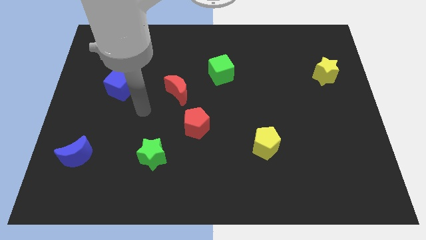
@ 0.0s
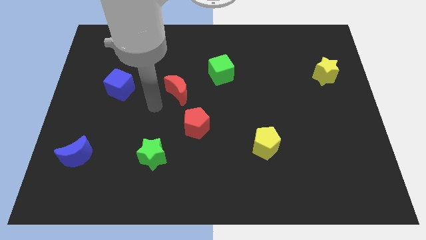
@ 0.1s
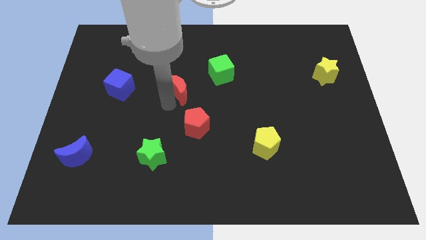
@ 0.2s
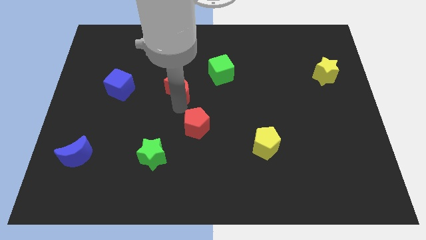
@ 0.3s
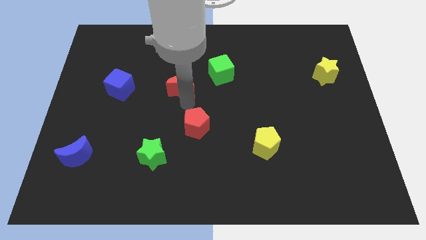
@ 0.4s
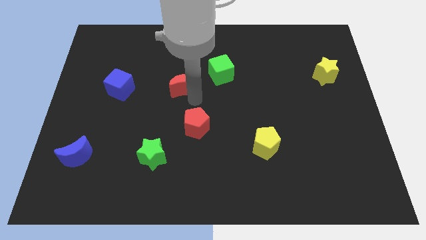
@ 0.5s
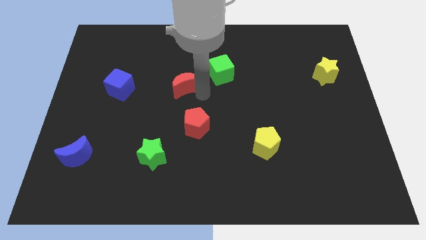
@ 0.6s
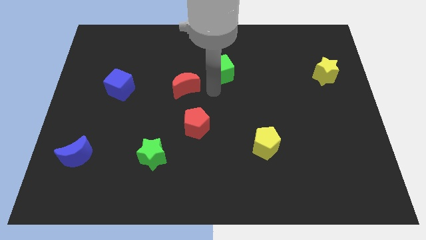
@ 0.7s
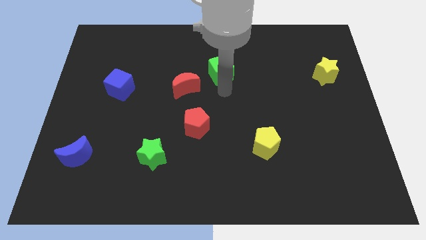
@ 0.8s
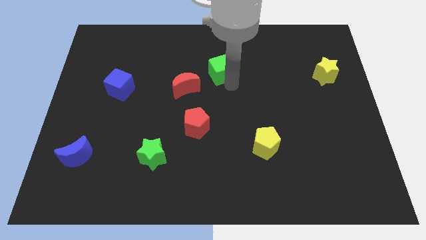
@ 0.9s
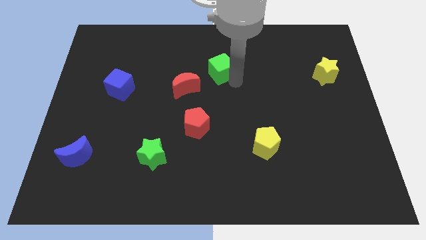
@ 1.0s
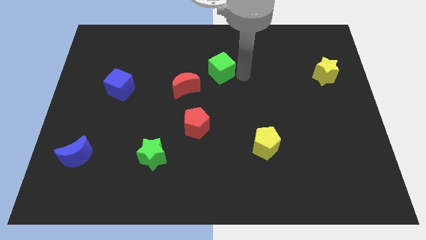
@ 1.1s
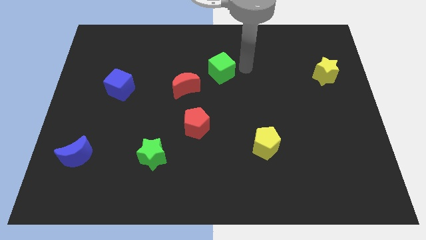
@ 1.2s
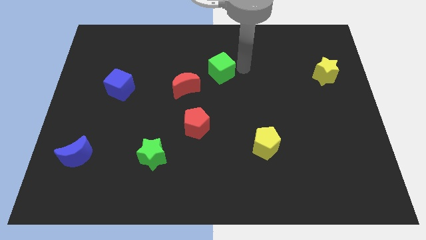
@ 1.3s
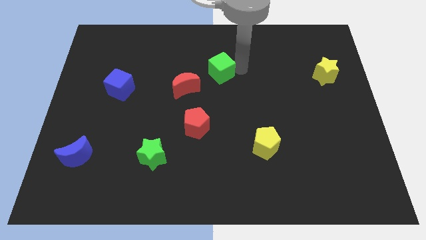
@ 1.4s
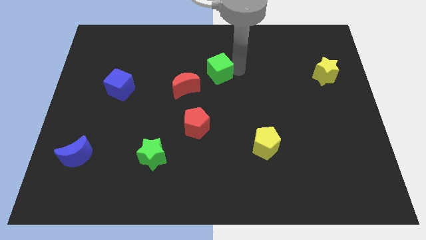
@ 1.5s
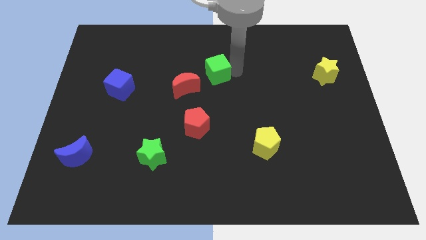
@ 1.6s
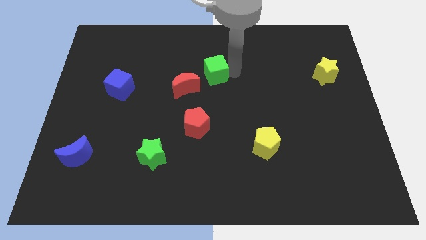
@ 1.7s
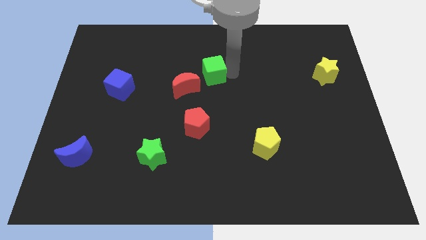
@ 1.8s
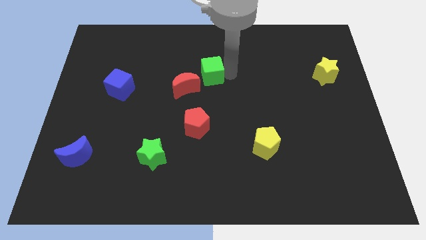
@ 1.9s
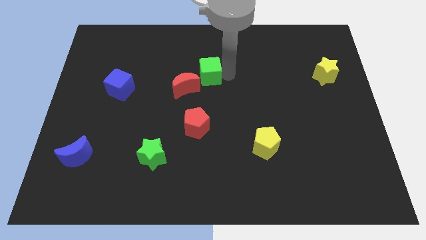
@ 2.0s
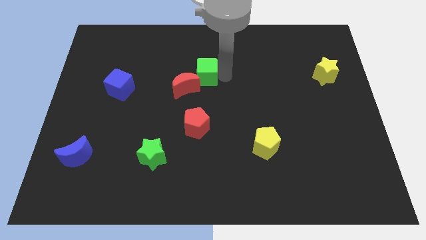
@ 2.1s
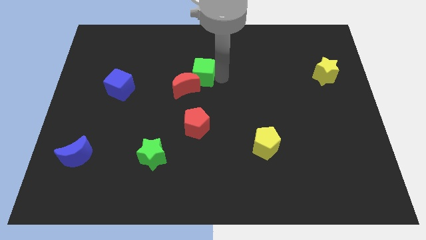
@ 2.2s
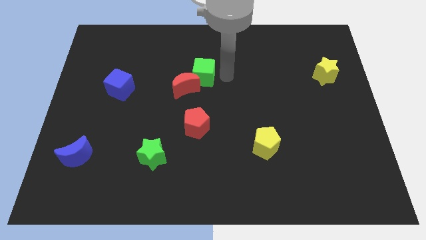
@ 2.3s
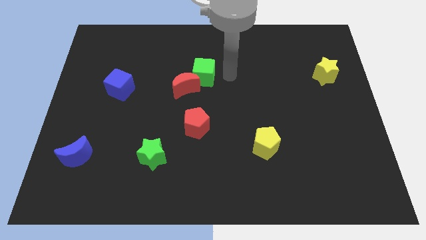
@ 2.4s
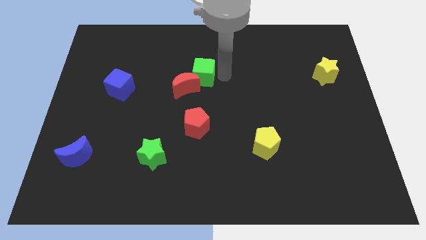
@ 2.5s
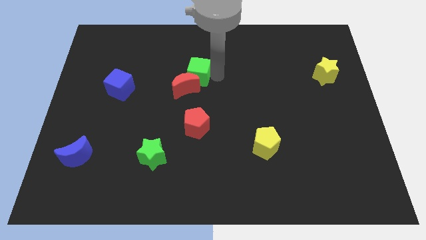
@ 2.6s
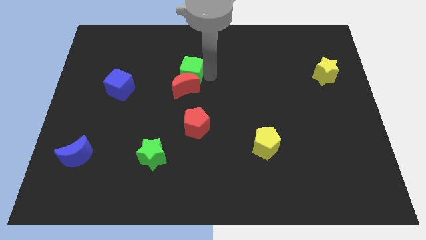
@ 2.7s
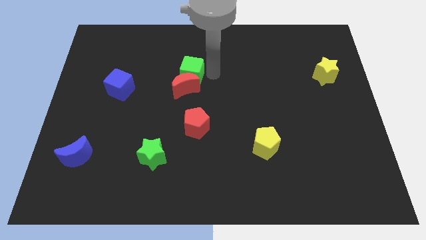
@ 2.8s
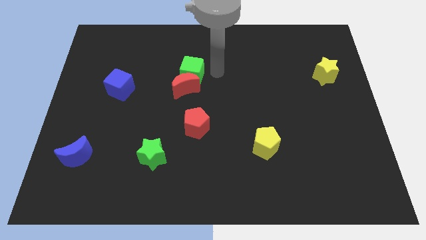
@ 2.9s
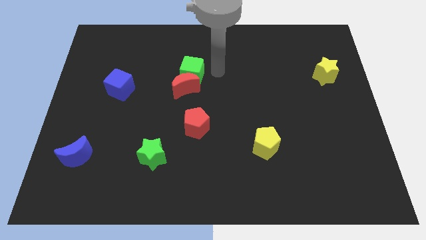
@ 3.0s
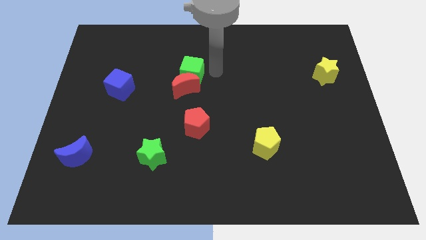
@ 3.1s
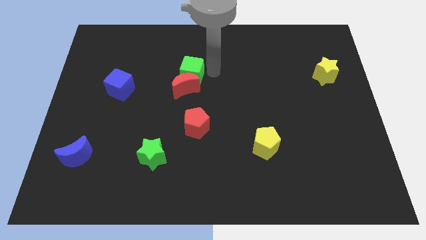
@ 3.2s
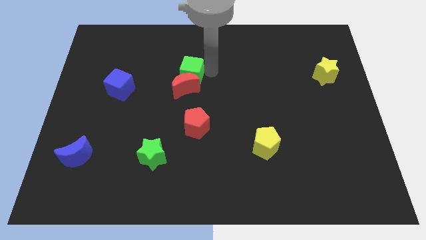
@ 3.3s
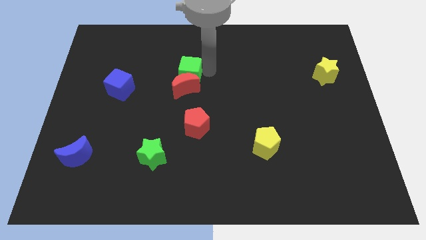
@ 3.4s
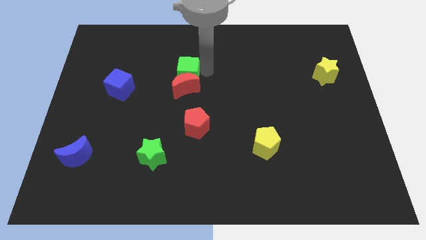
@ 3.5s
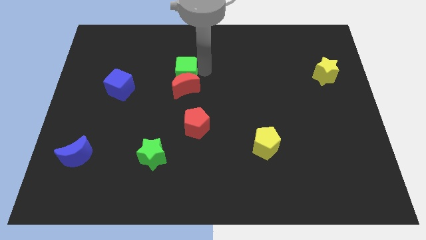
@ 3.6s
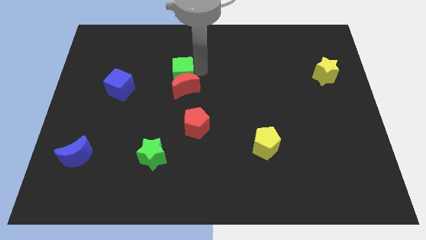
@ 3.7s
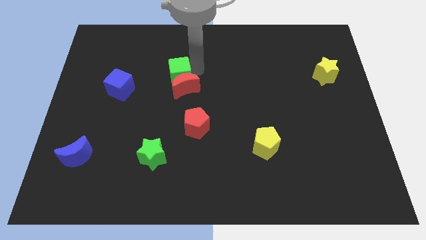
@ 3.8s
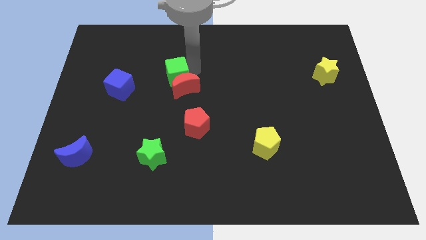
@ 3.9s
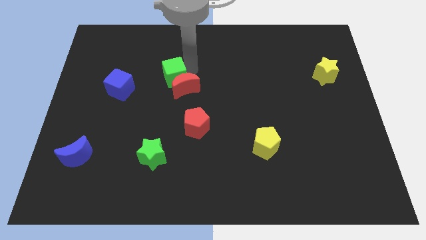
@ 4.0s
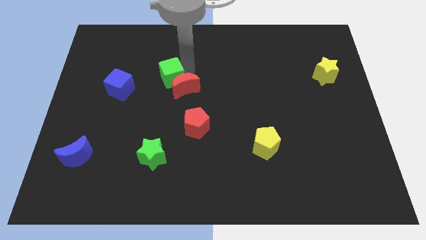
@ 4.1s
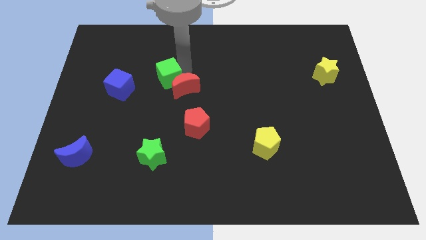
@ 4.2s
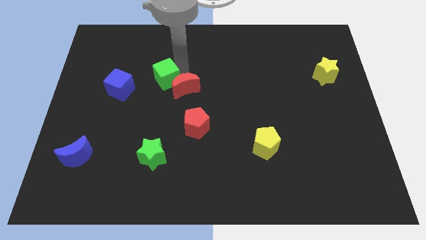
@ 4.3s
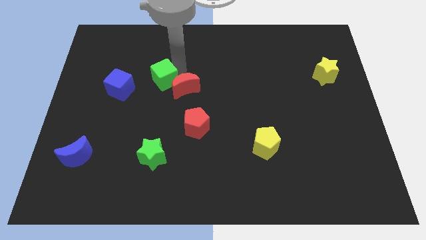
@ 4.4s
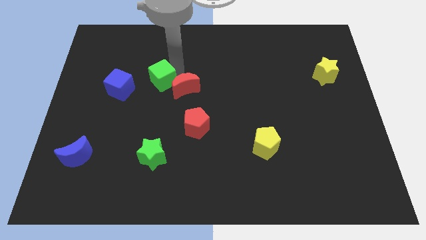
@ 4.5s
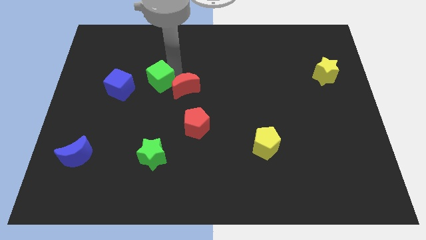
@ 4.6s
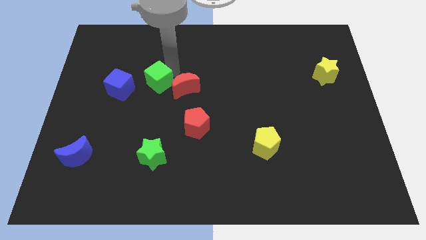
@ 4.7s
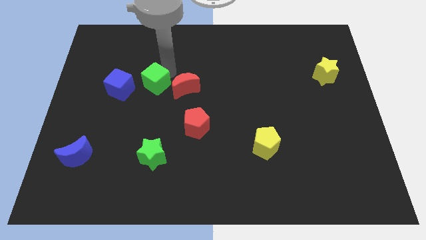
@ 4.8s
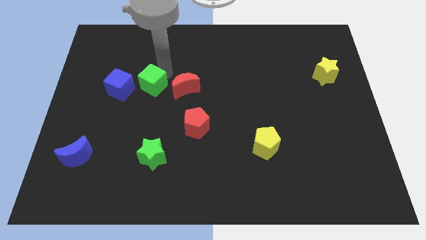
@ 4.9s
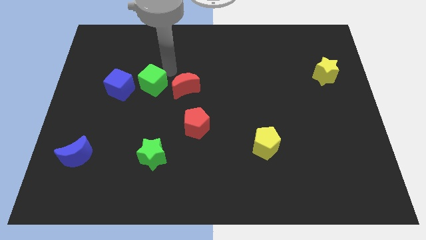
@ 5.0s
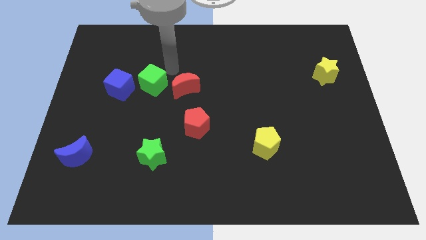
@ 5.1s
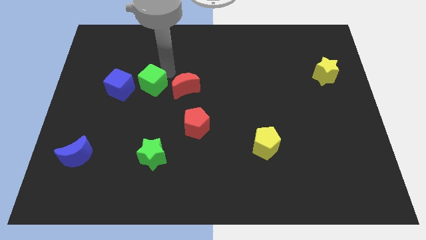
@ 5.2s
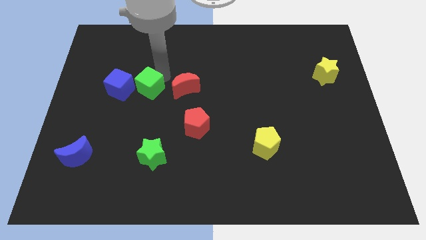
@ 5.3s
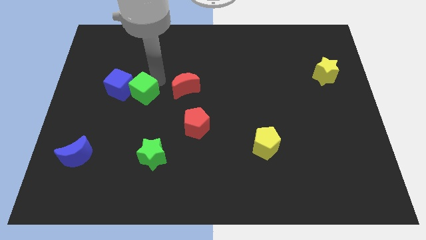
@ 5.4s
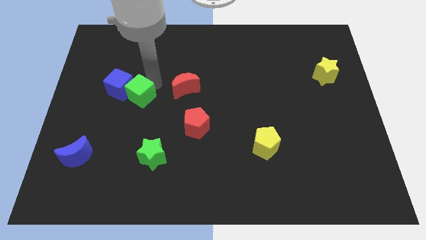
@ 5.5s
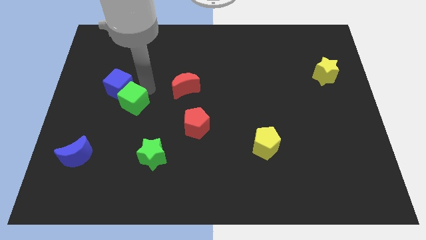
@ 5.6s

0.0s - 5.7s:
move the green cube to the bottom side of the blue cube

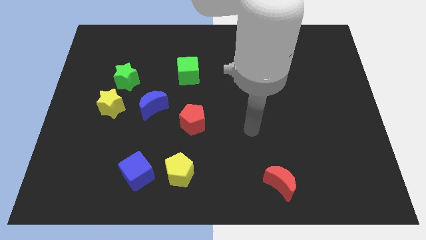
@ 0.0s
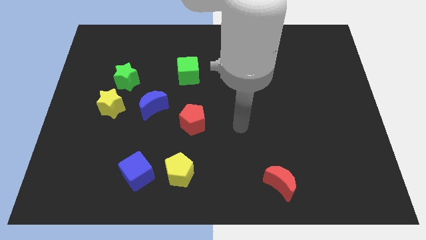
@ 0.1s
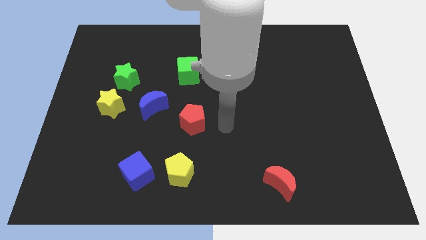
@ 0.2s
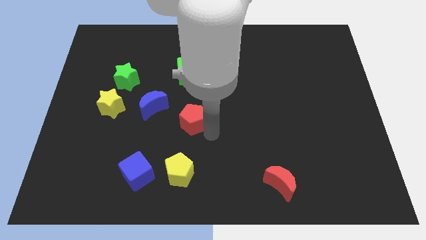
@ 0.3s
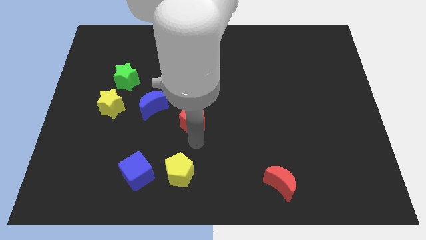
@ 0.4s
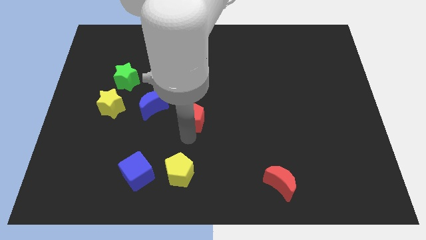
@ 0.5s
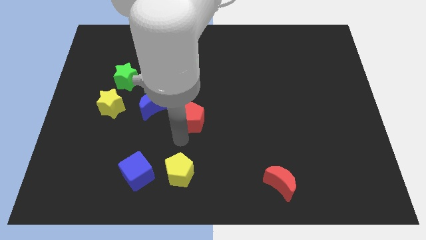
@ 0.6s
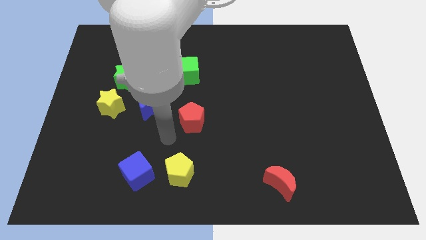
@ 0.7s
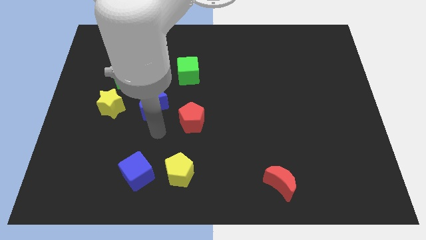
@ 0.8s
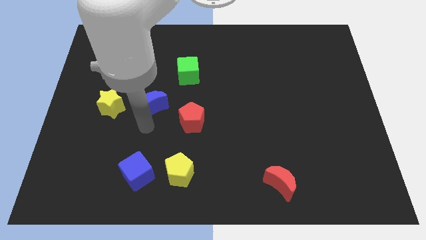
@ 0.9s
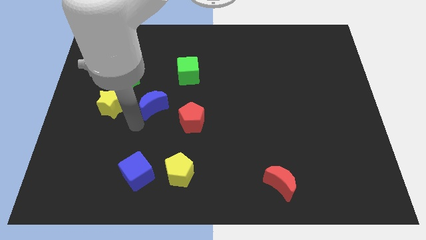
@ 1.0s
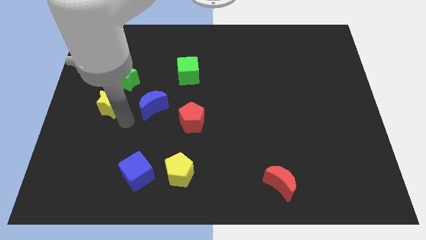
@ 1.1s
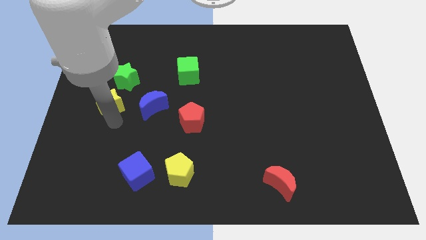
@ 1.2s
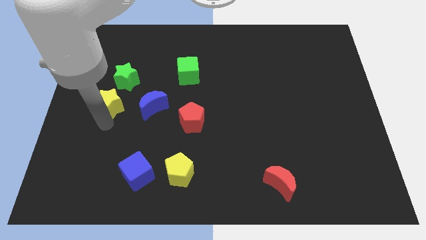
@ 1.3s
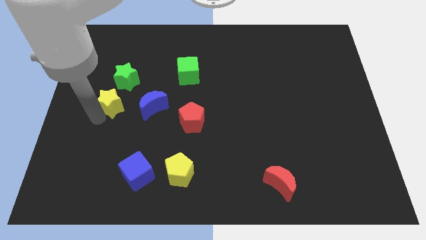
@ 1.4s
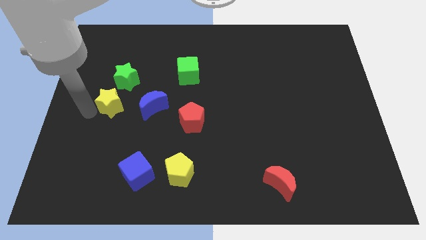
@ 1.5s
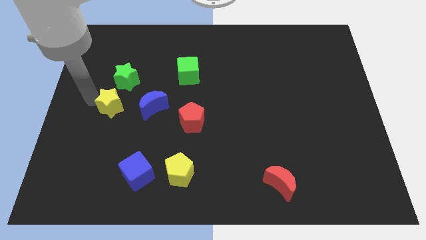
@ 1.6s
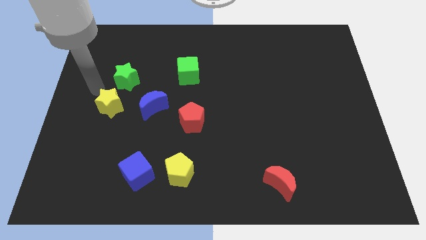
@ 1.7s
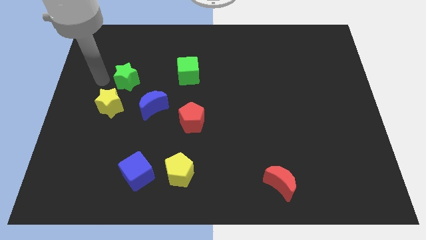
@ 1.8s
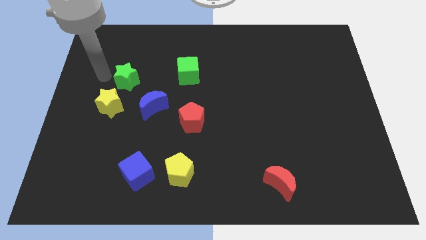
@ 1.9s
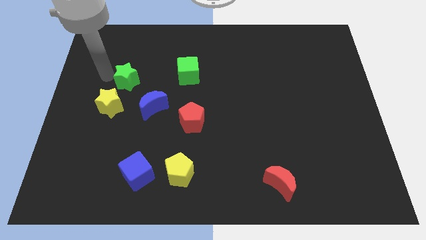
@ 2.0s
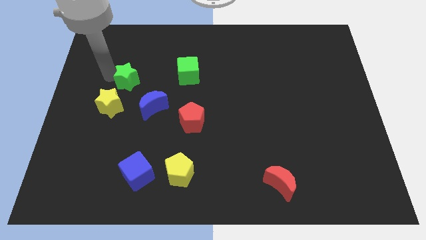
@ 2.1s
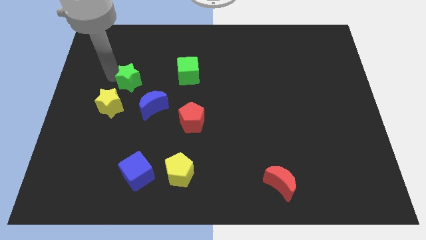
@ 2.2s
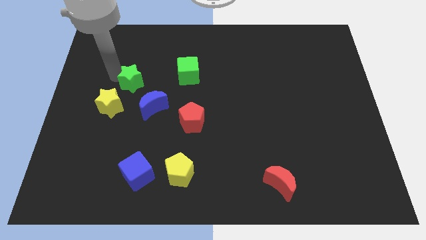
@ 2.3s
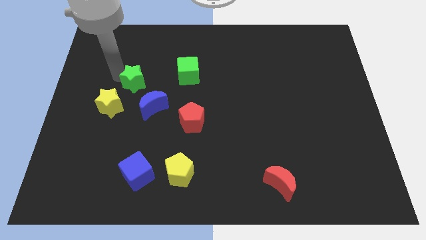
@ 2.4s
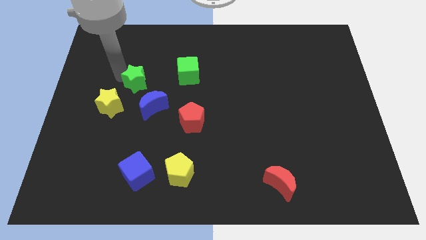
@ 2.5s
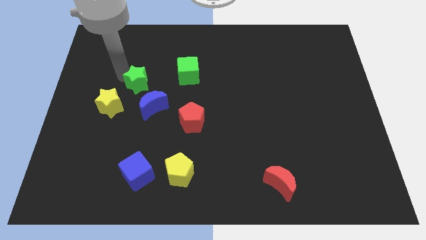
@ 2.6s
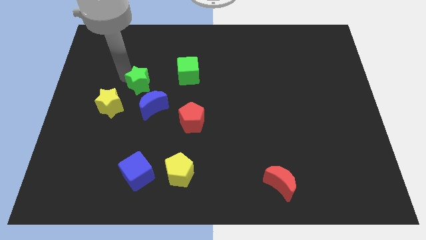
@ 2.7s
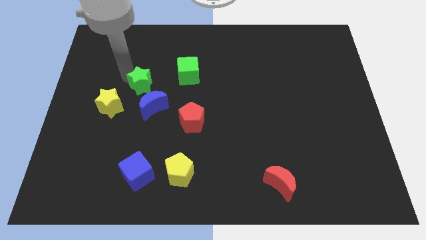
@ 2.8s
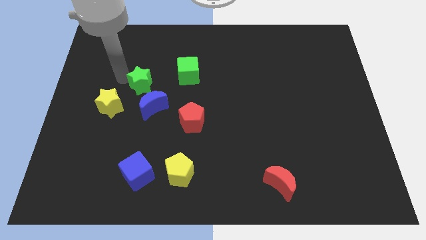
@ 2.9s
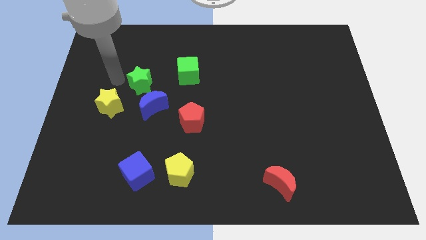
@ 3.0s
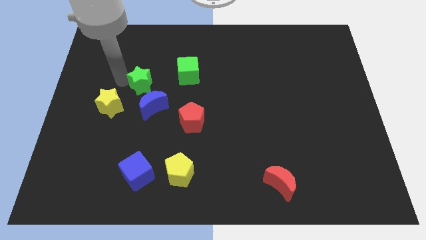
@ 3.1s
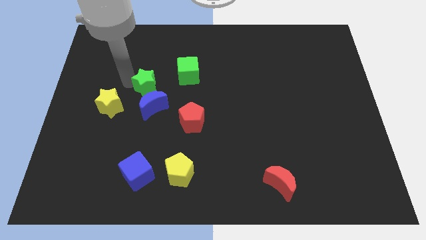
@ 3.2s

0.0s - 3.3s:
push the green star to the bottom left side of the green cube
